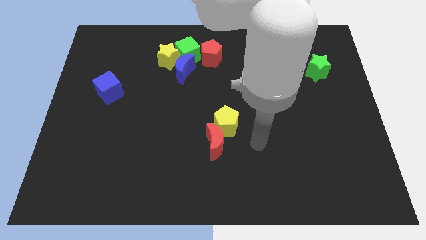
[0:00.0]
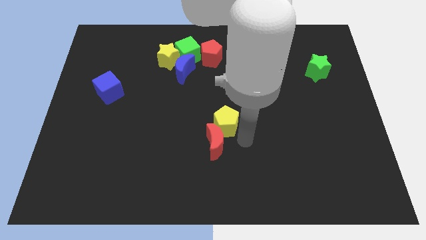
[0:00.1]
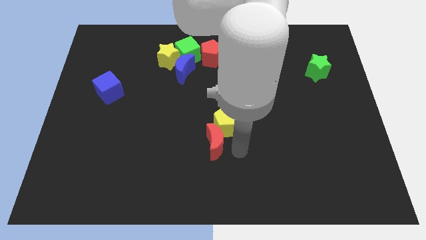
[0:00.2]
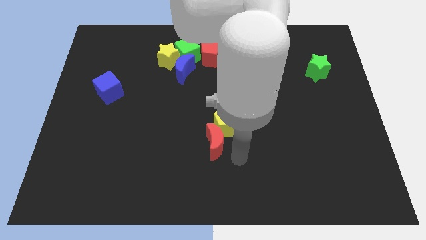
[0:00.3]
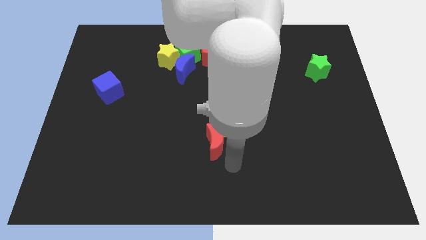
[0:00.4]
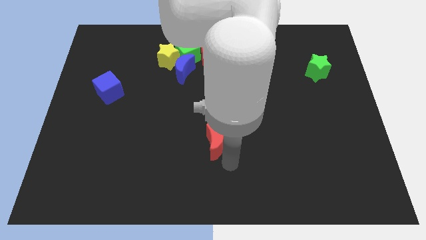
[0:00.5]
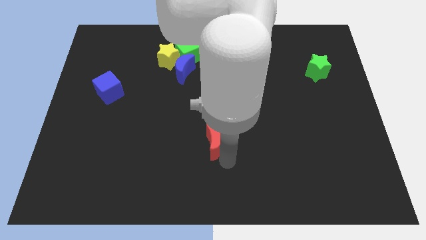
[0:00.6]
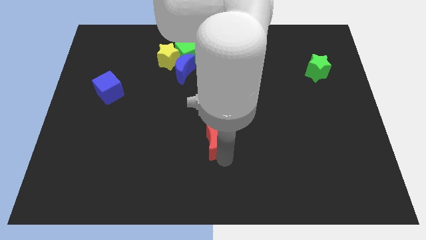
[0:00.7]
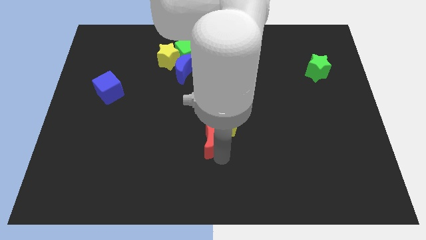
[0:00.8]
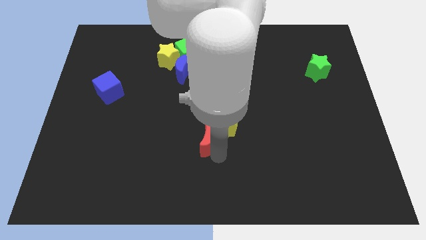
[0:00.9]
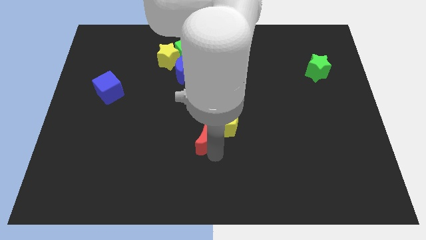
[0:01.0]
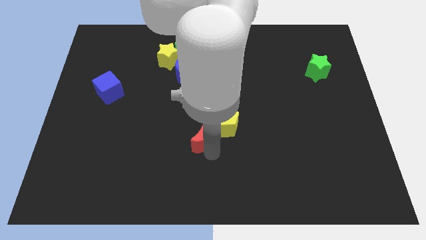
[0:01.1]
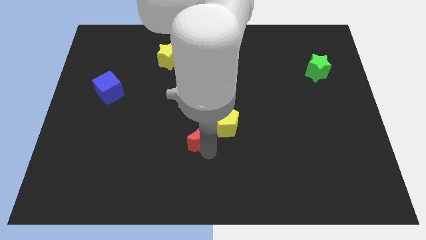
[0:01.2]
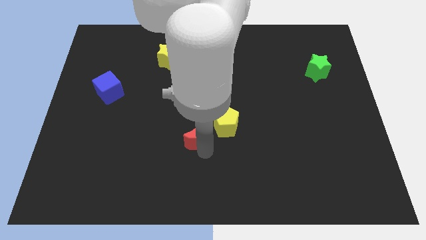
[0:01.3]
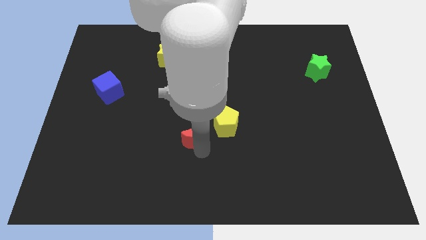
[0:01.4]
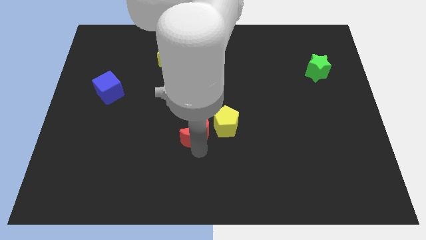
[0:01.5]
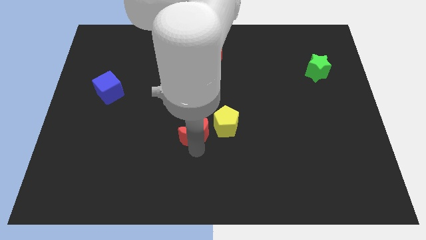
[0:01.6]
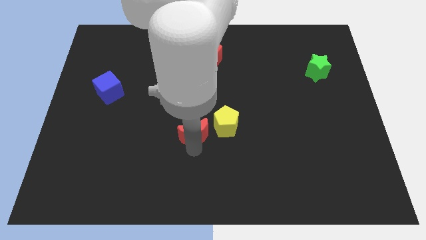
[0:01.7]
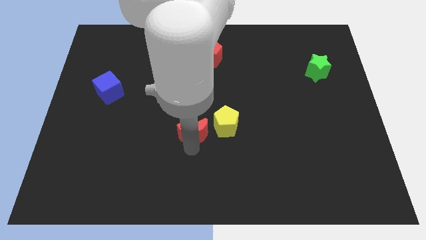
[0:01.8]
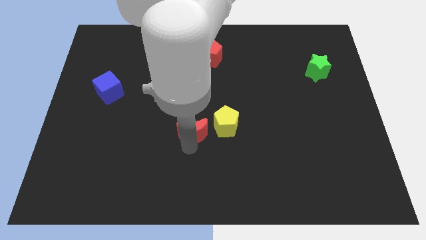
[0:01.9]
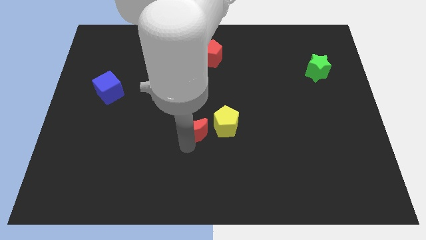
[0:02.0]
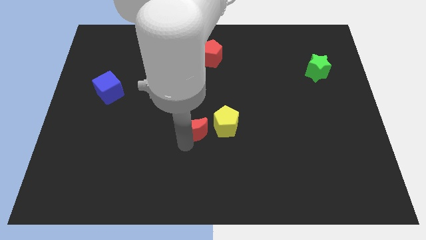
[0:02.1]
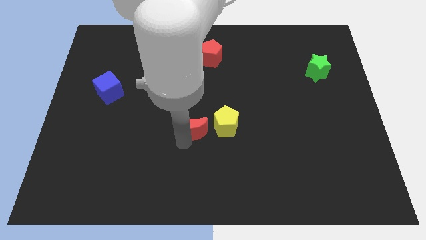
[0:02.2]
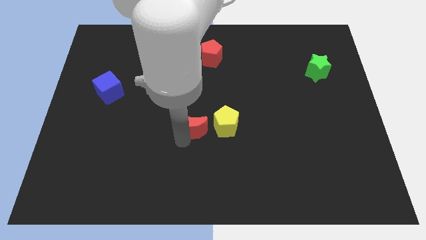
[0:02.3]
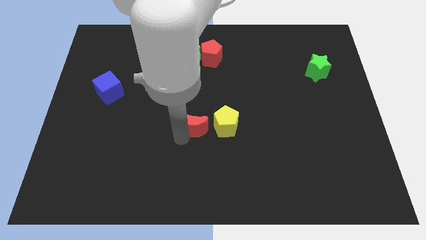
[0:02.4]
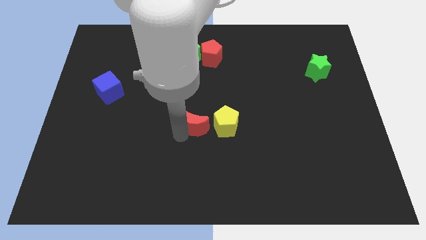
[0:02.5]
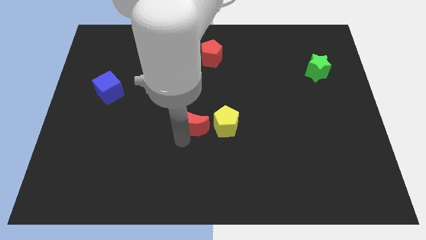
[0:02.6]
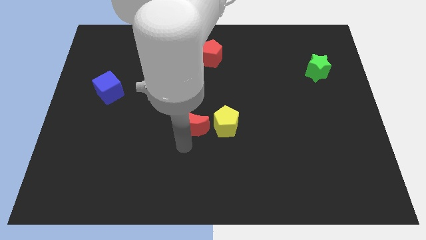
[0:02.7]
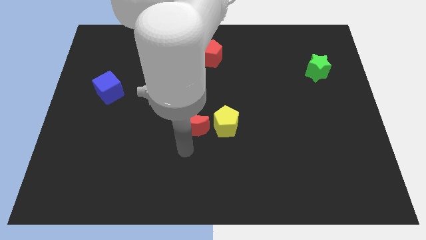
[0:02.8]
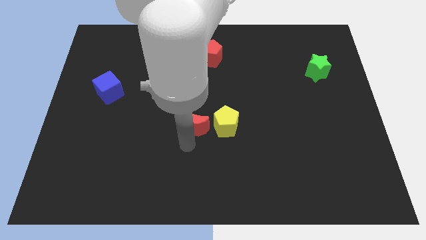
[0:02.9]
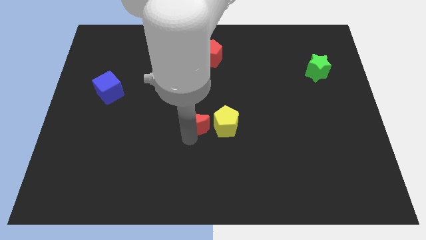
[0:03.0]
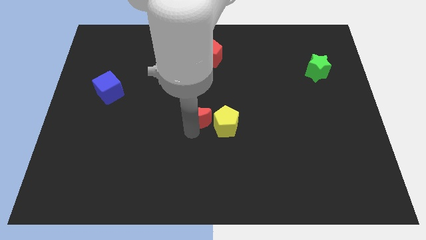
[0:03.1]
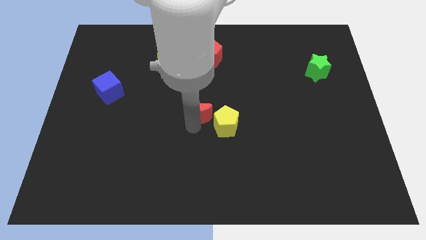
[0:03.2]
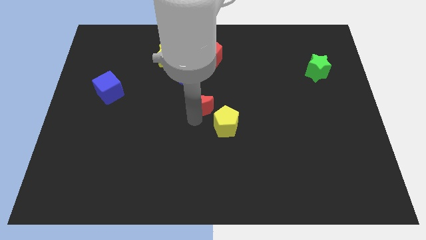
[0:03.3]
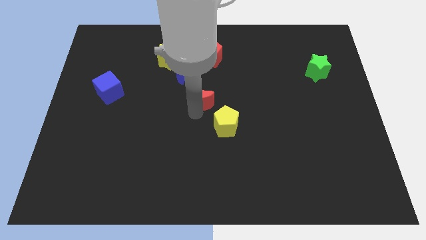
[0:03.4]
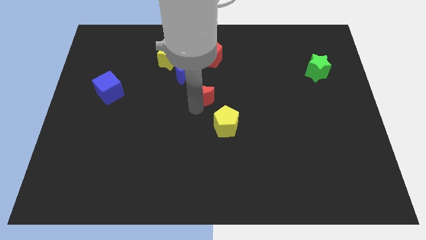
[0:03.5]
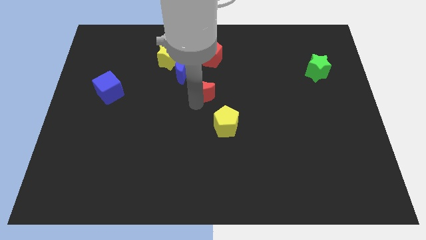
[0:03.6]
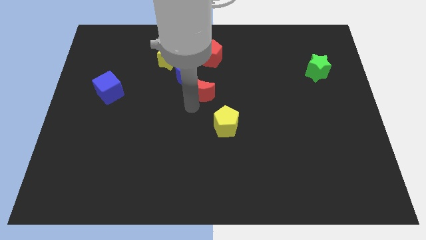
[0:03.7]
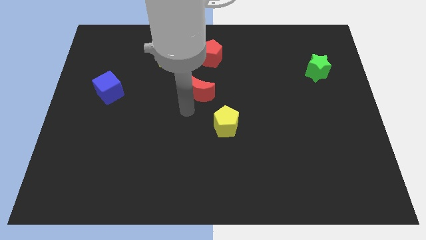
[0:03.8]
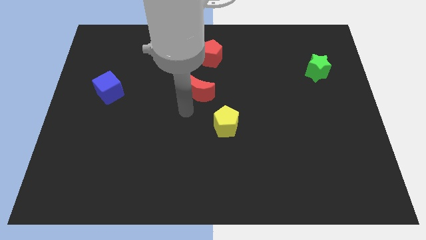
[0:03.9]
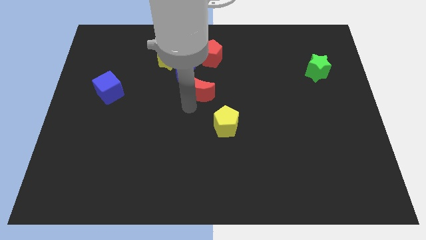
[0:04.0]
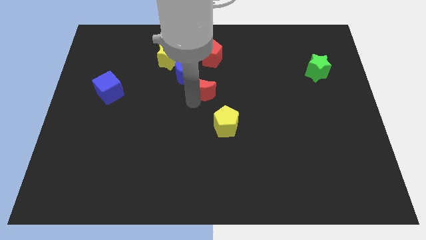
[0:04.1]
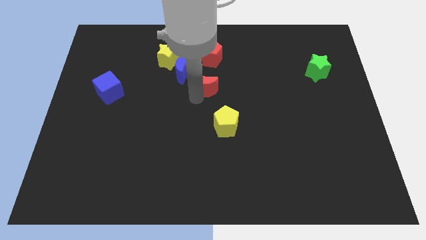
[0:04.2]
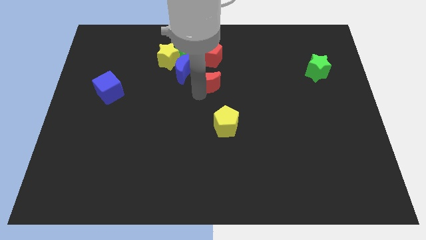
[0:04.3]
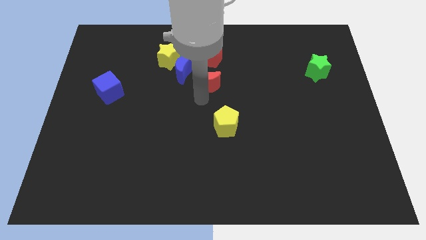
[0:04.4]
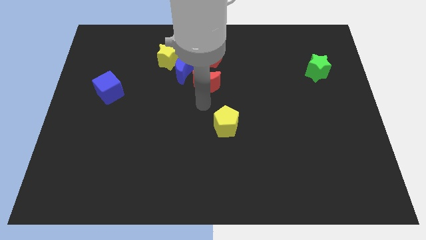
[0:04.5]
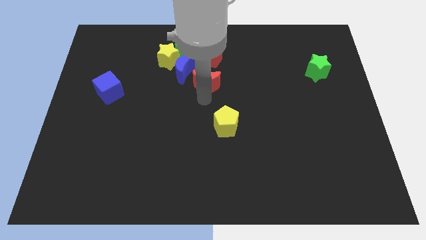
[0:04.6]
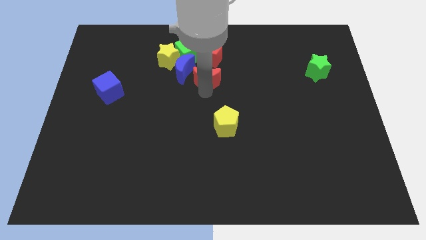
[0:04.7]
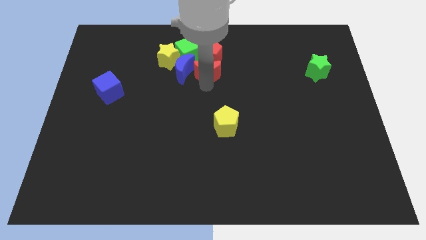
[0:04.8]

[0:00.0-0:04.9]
put the red moon to the red pentagon

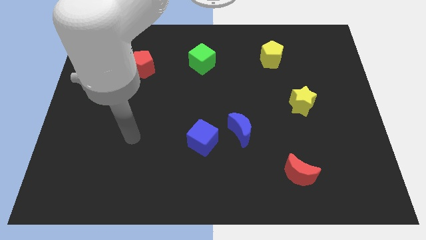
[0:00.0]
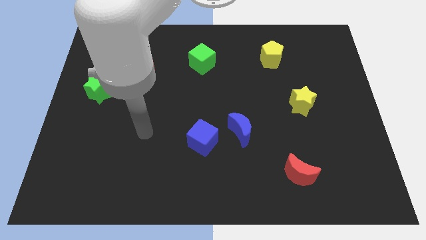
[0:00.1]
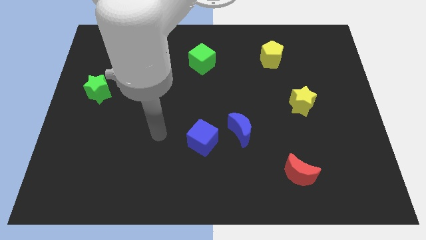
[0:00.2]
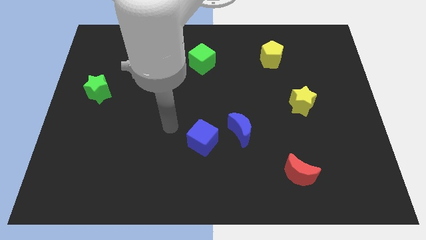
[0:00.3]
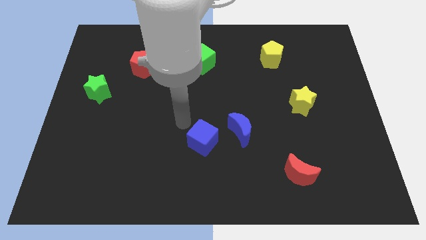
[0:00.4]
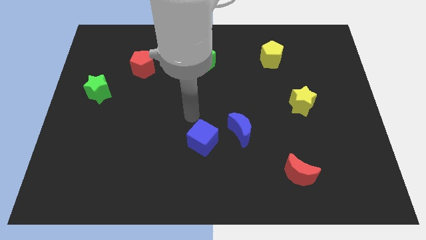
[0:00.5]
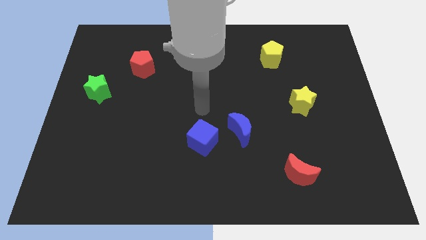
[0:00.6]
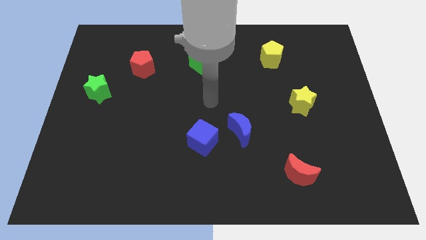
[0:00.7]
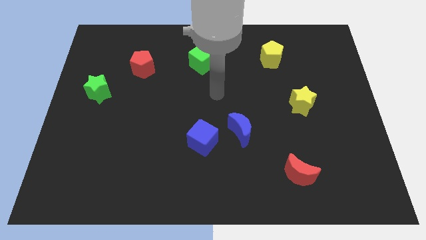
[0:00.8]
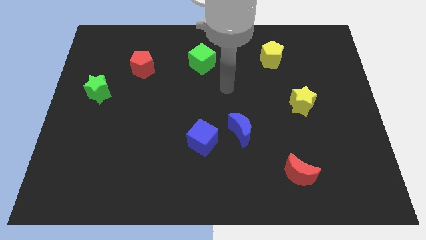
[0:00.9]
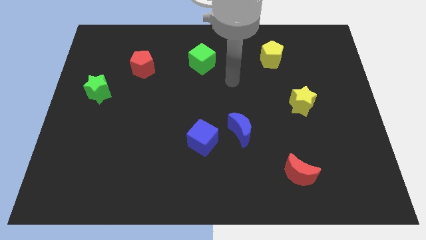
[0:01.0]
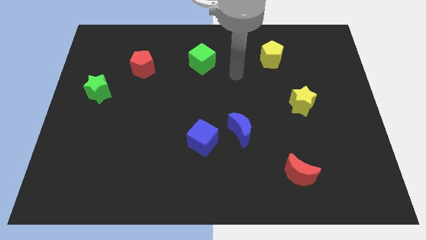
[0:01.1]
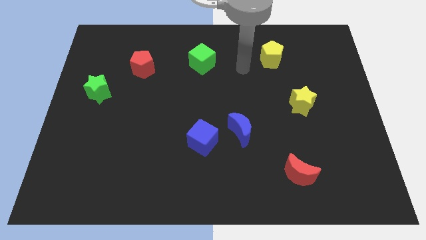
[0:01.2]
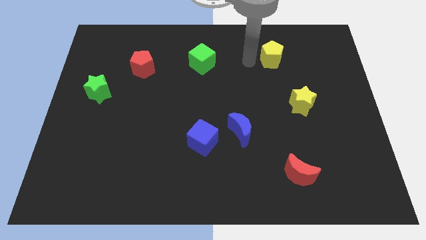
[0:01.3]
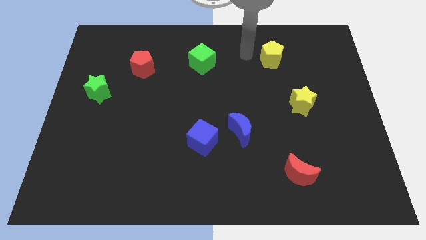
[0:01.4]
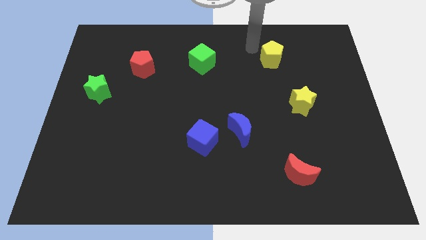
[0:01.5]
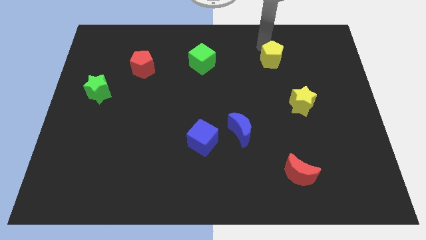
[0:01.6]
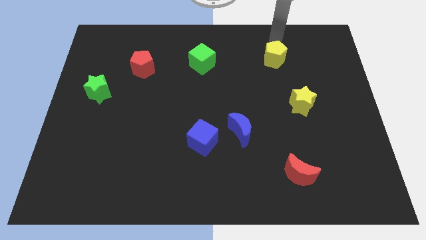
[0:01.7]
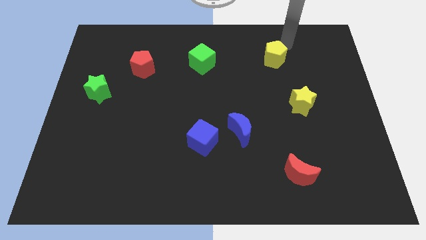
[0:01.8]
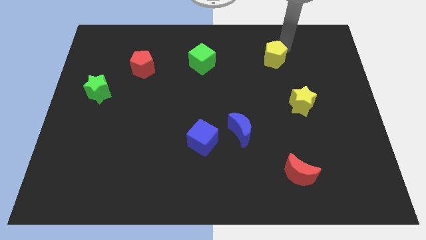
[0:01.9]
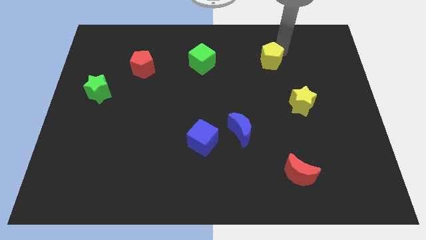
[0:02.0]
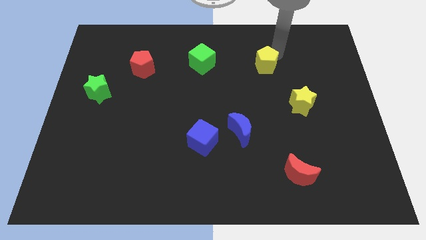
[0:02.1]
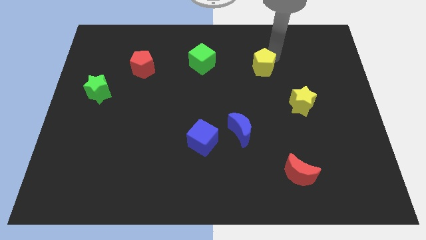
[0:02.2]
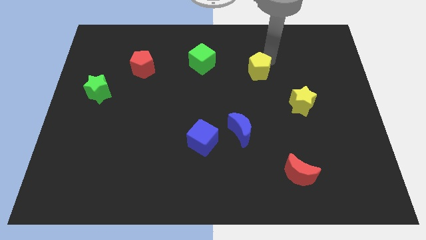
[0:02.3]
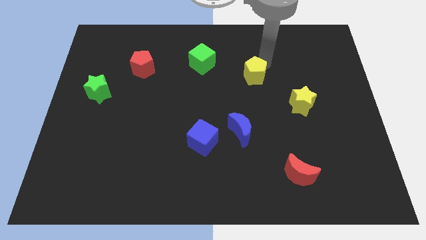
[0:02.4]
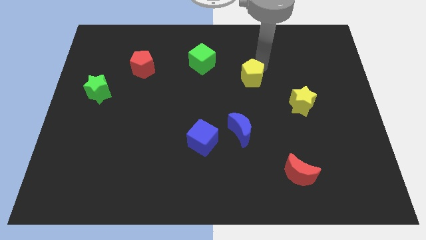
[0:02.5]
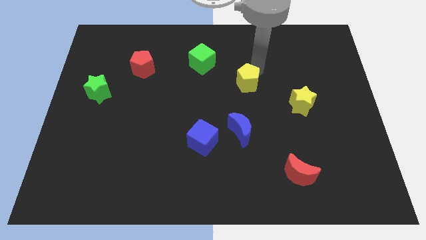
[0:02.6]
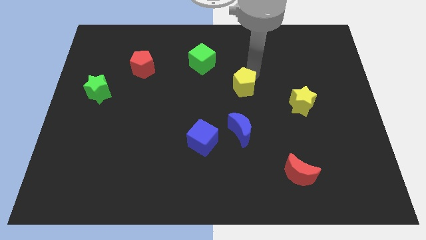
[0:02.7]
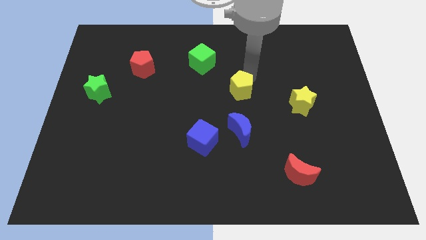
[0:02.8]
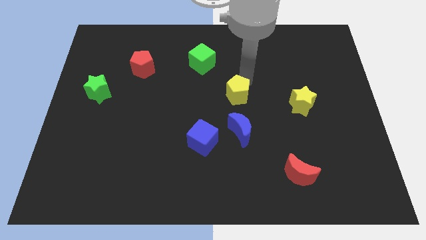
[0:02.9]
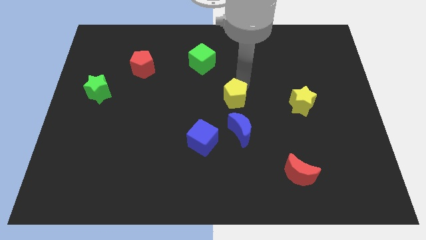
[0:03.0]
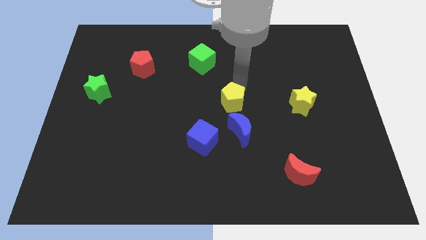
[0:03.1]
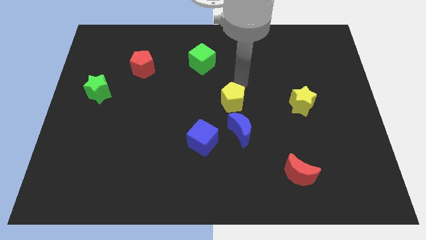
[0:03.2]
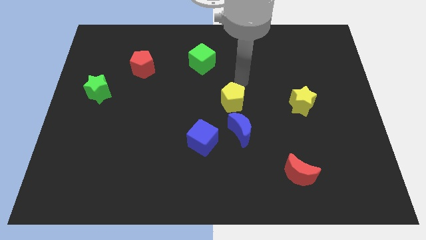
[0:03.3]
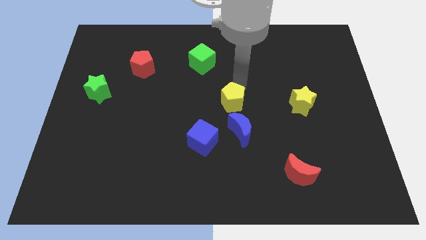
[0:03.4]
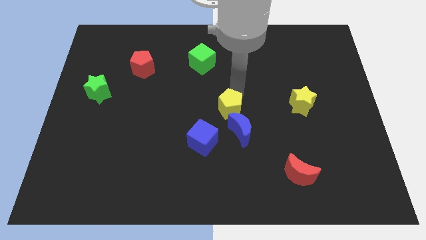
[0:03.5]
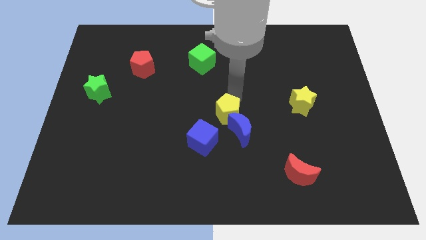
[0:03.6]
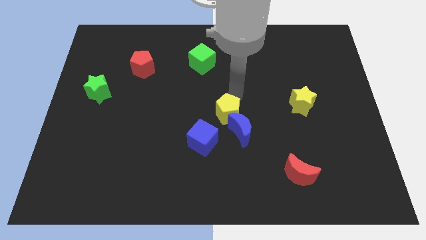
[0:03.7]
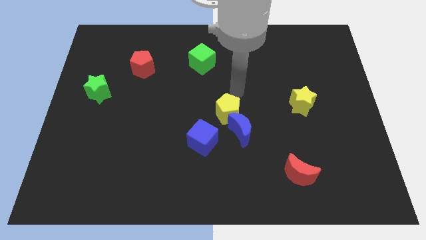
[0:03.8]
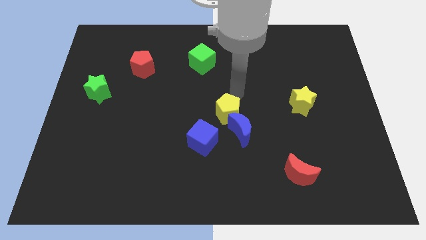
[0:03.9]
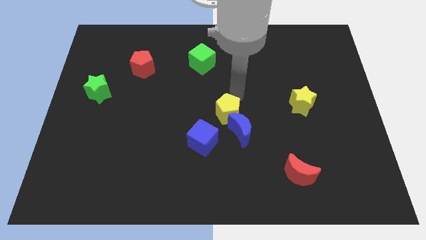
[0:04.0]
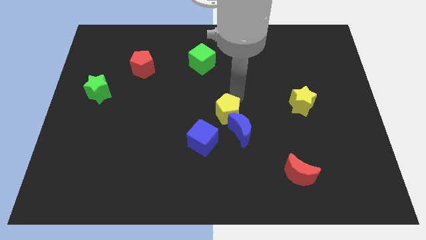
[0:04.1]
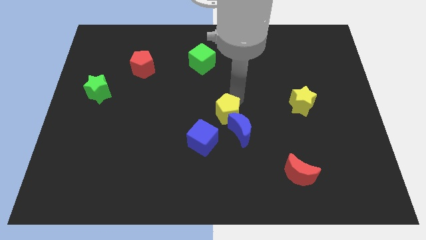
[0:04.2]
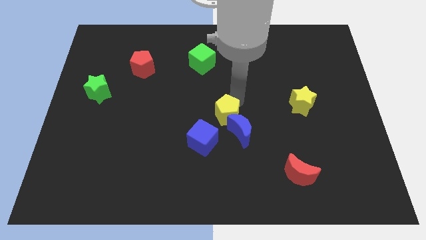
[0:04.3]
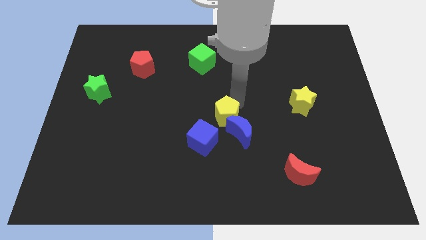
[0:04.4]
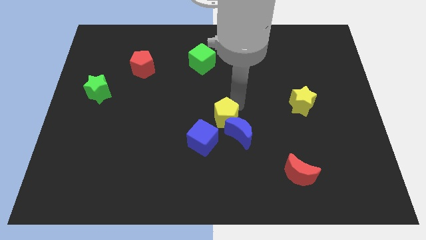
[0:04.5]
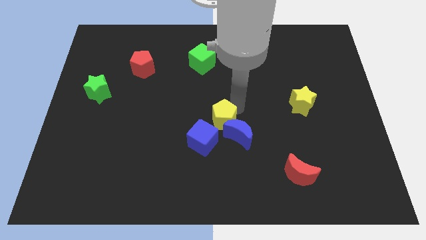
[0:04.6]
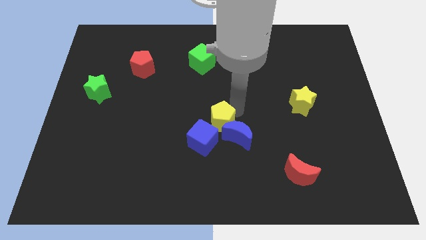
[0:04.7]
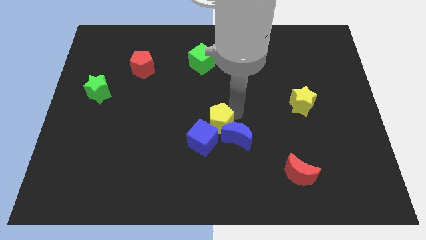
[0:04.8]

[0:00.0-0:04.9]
slide the yellow pentagon close to the blue cube
